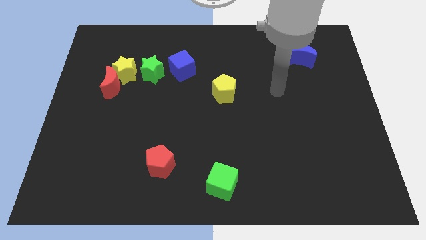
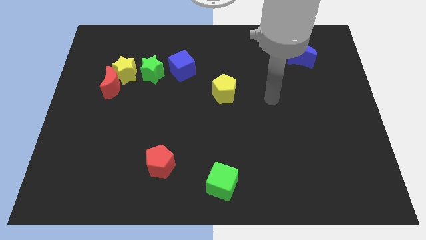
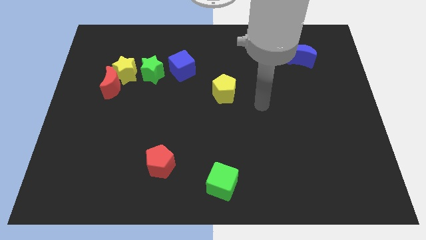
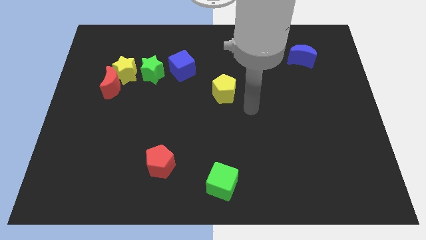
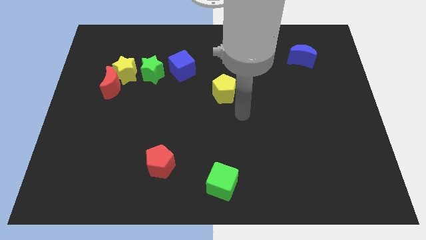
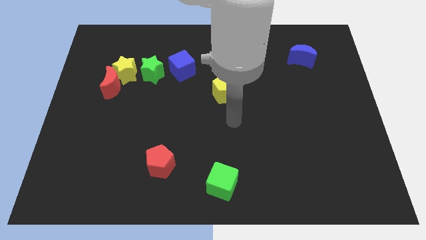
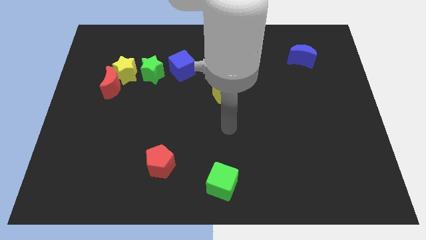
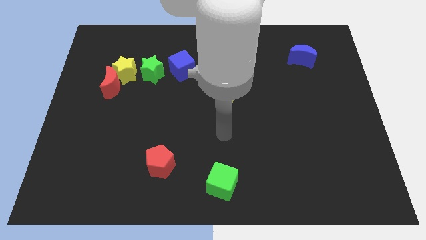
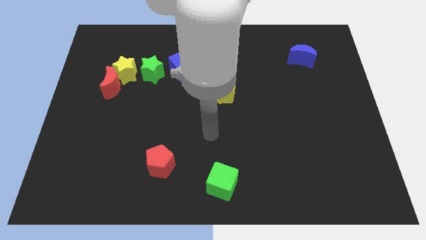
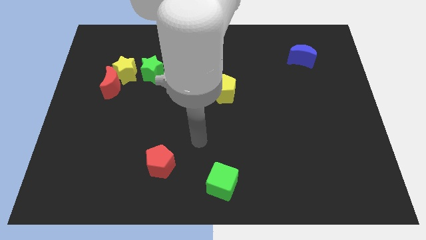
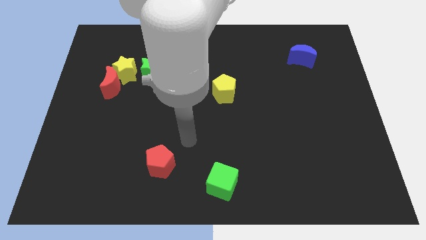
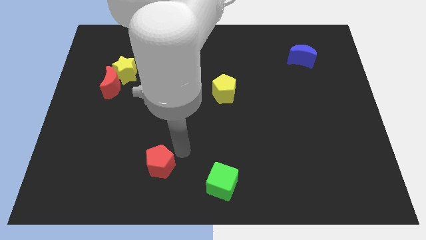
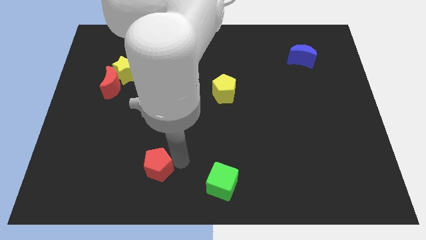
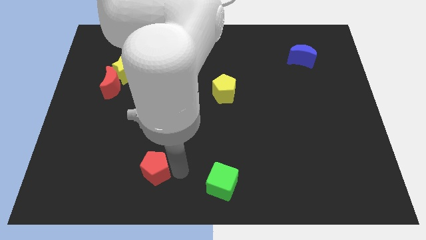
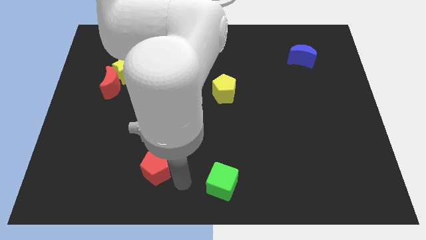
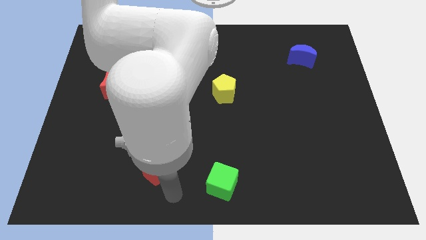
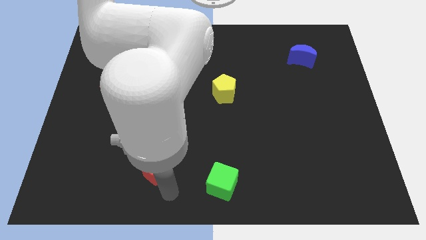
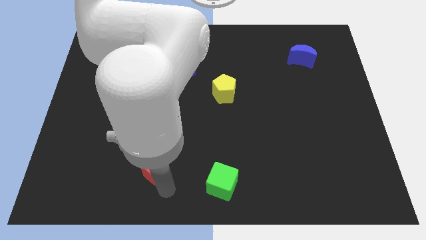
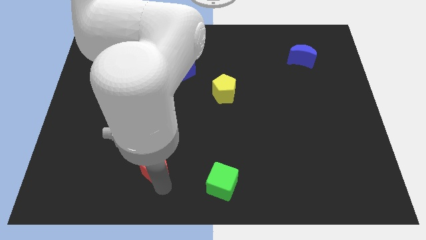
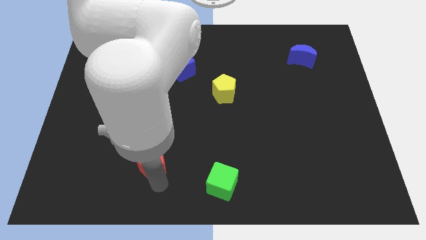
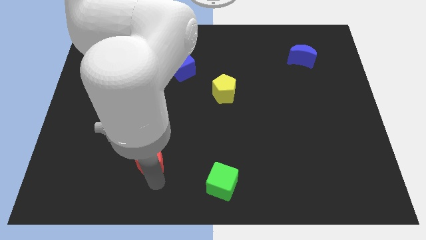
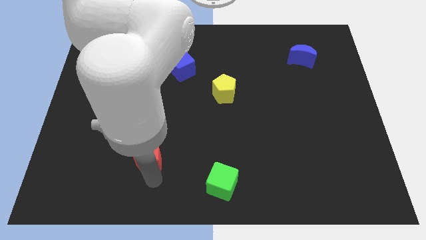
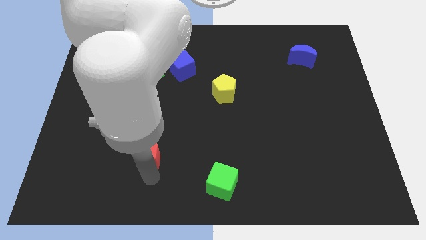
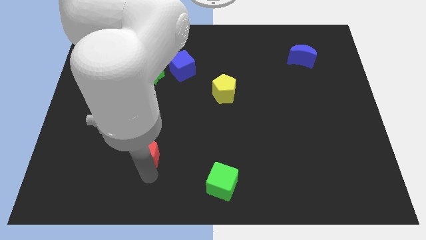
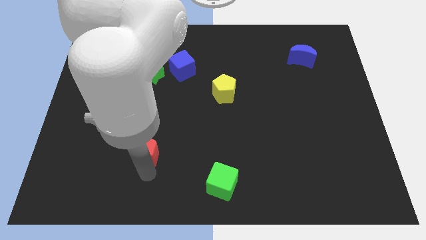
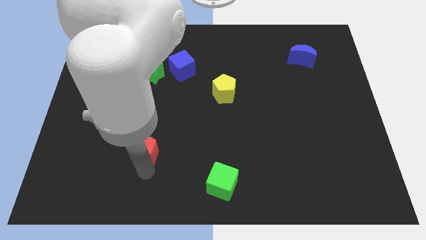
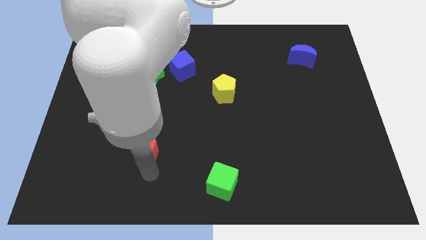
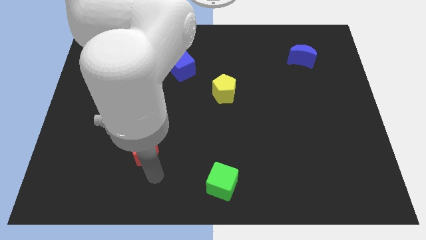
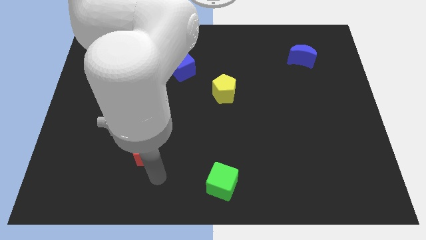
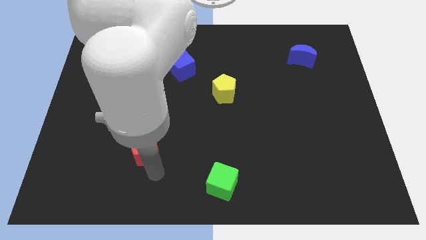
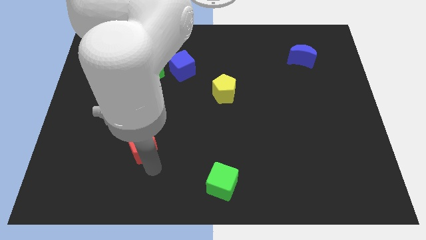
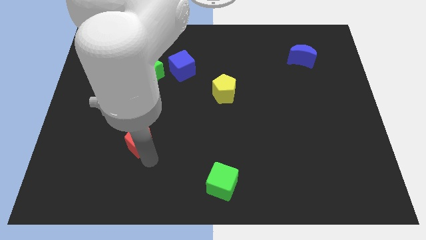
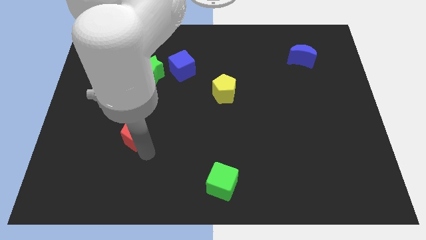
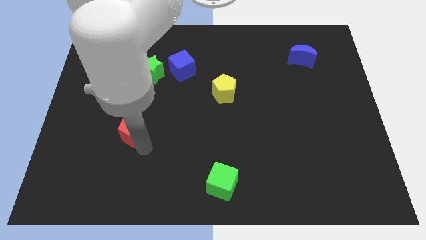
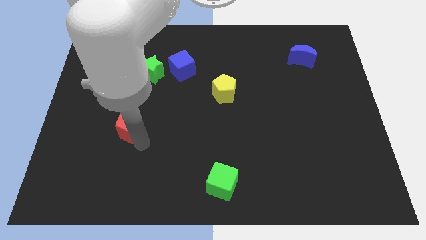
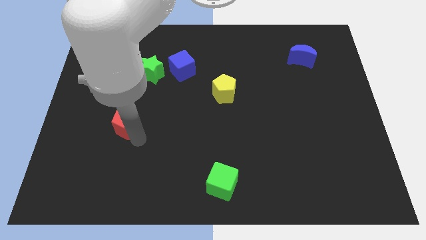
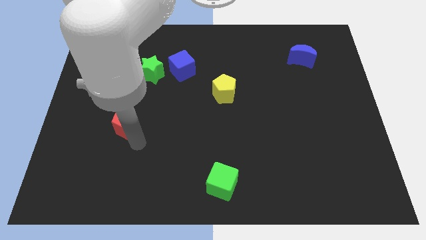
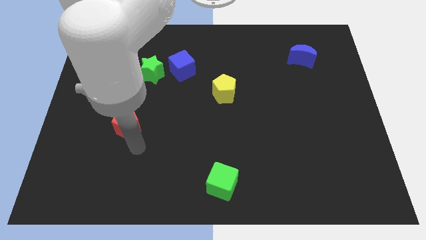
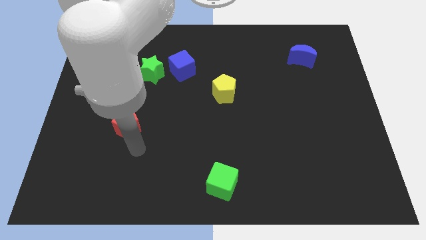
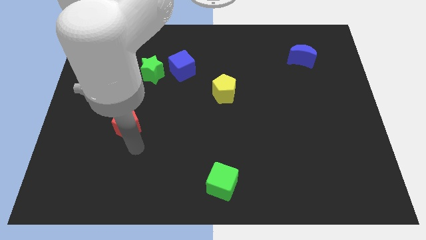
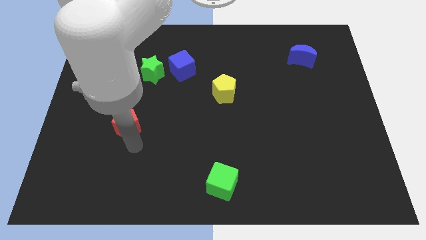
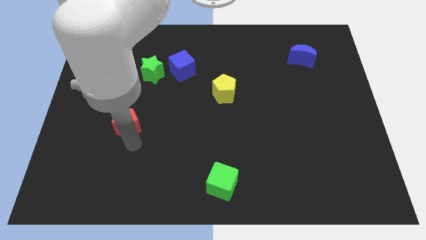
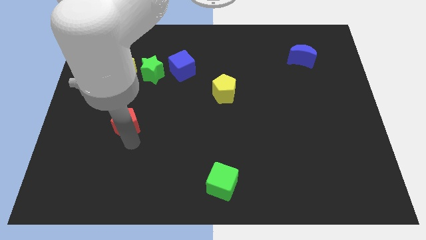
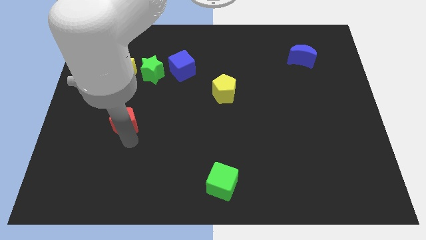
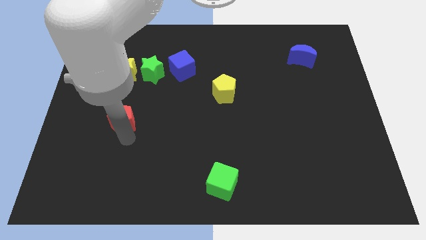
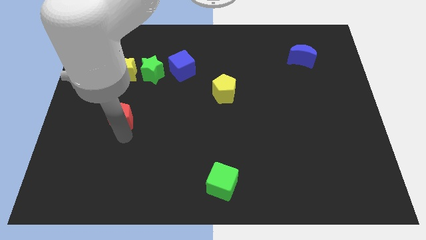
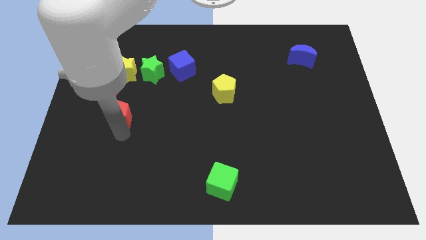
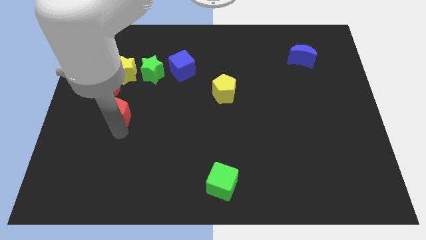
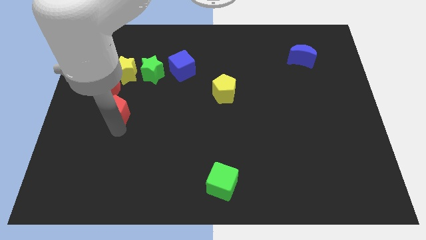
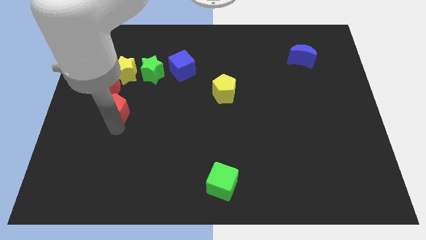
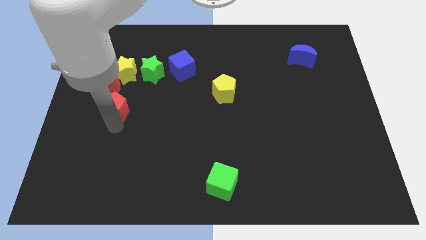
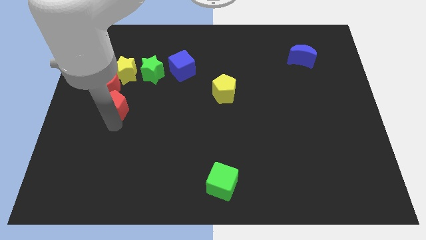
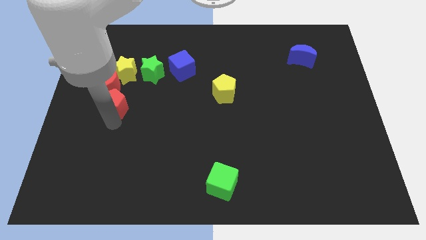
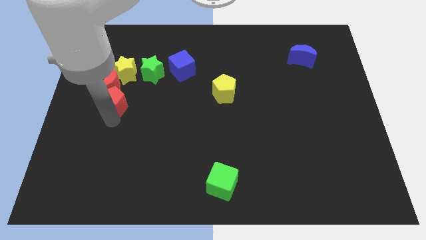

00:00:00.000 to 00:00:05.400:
push the red pentagon to the red moon

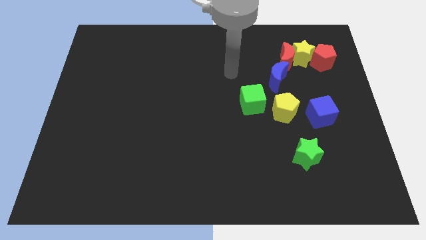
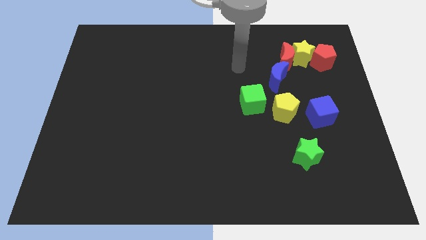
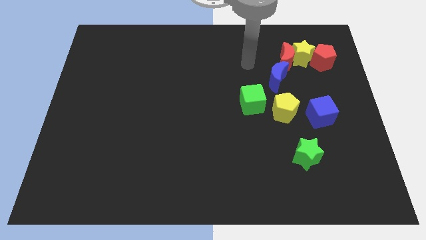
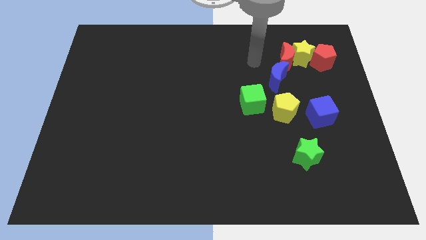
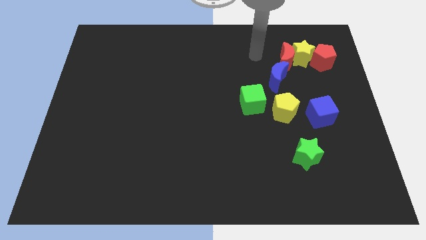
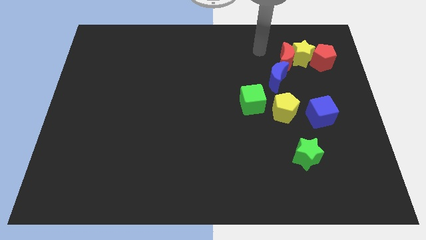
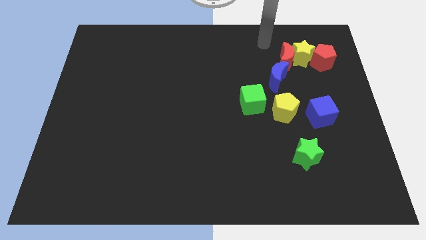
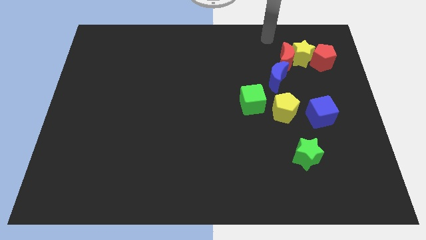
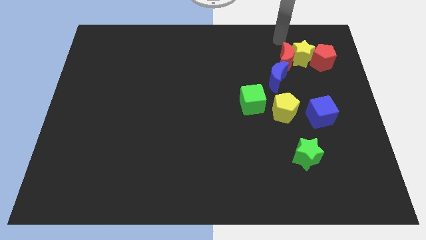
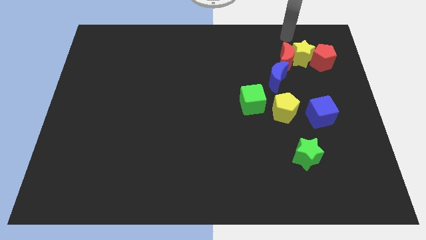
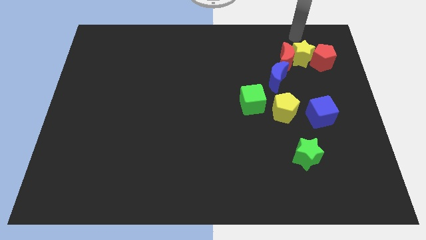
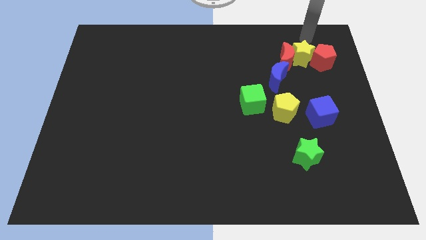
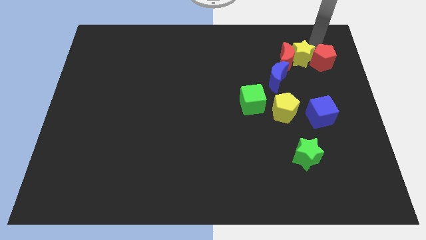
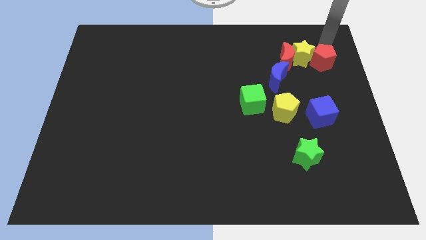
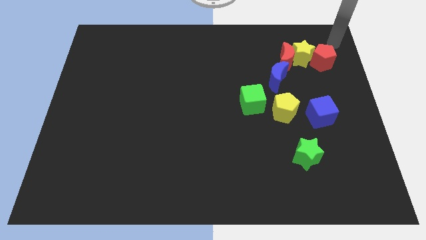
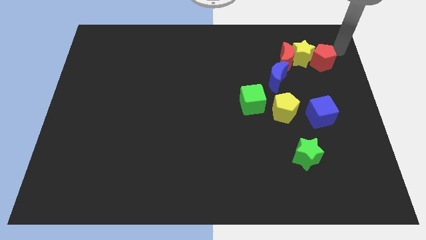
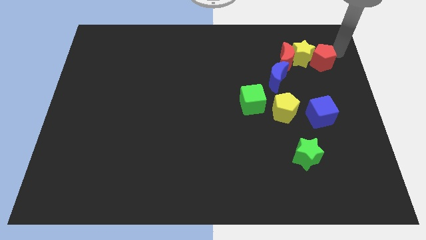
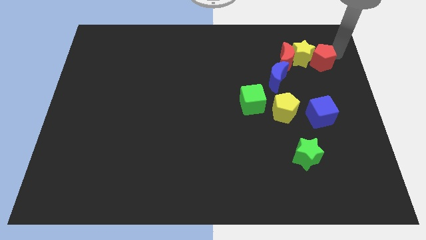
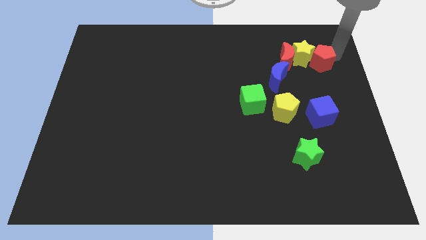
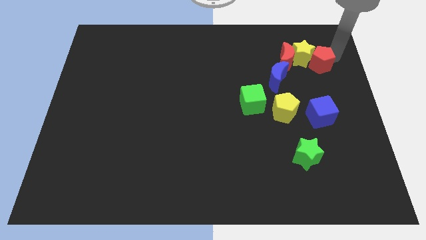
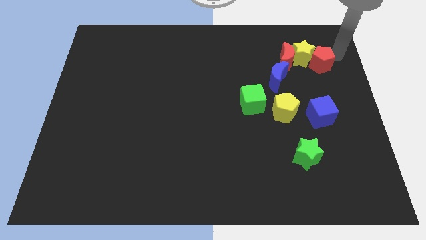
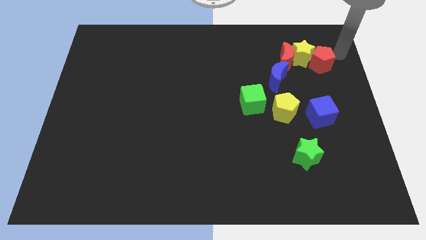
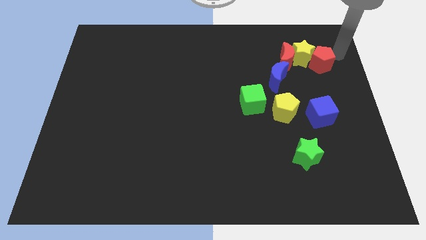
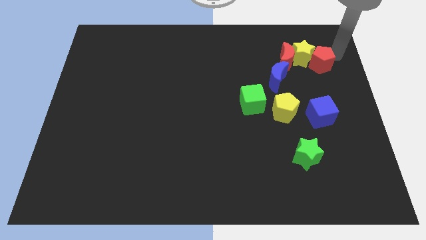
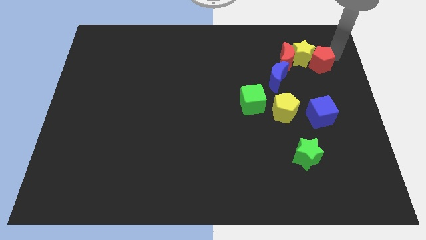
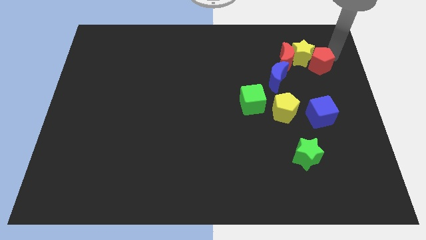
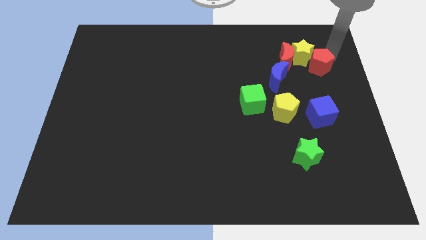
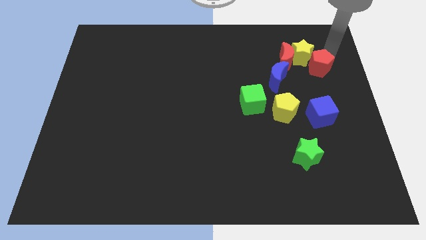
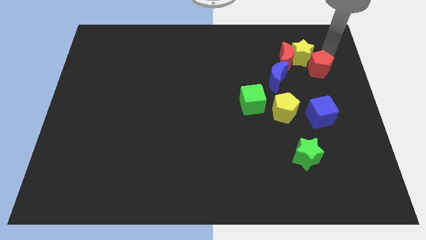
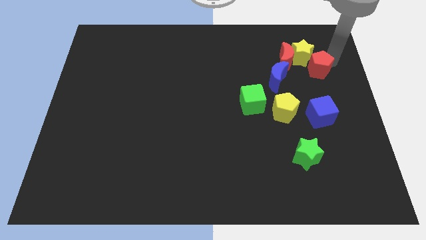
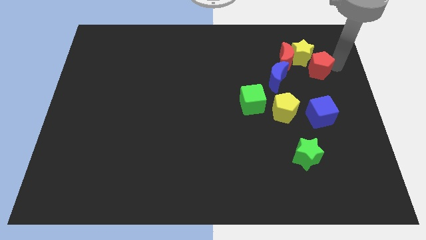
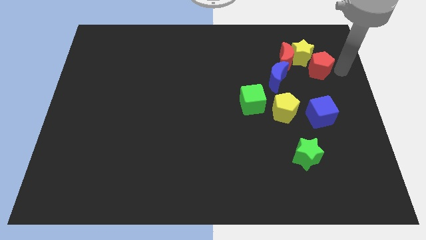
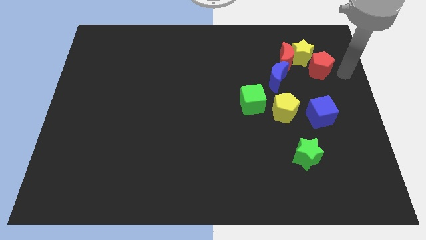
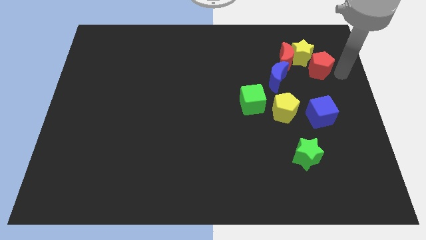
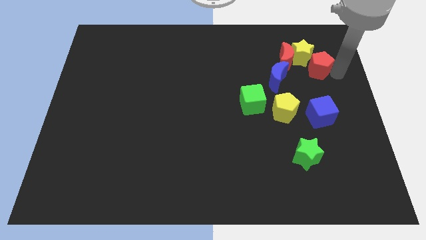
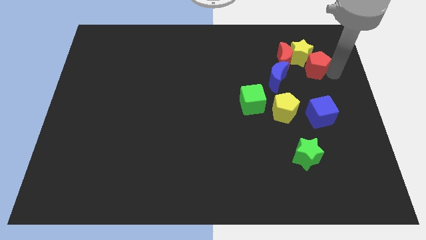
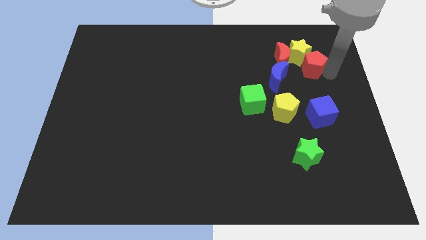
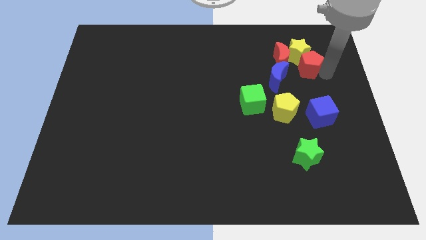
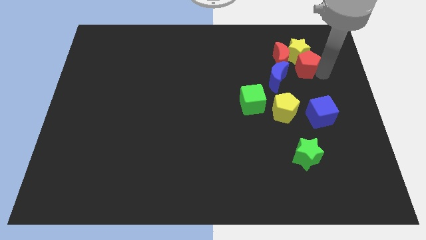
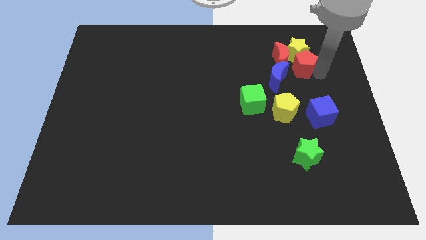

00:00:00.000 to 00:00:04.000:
slide the red pentagon close to the red moon
